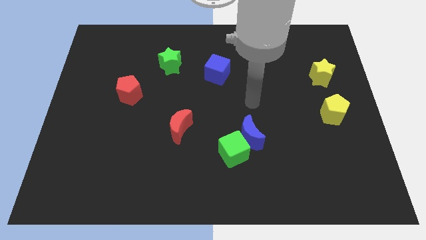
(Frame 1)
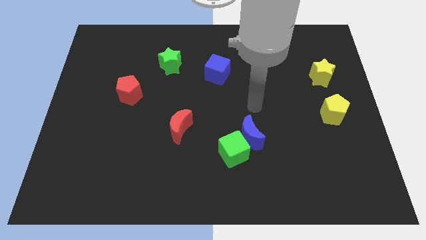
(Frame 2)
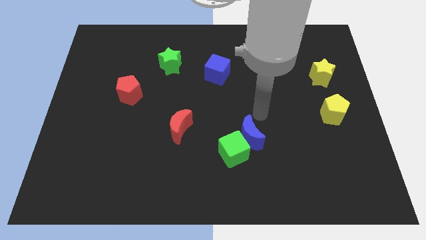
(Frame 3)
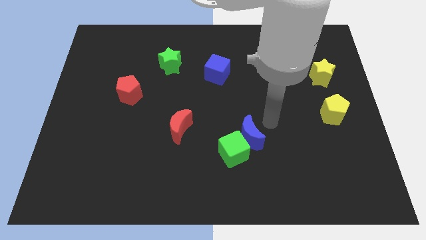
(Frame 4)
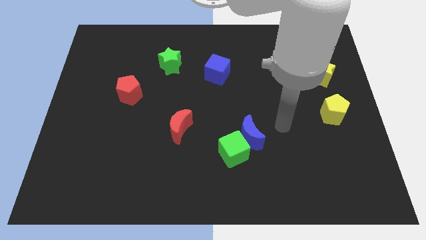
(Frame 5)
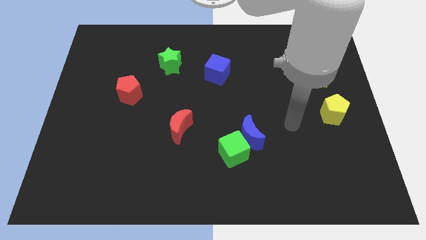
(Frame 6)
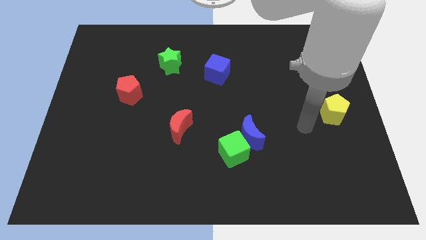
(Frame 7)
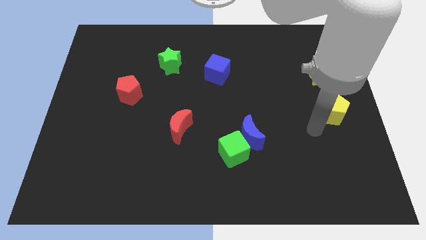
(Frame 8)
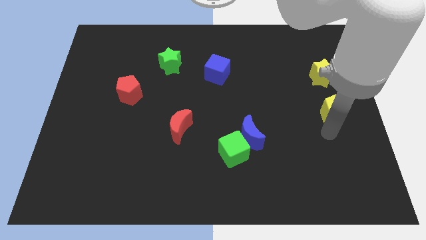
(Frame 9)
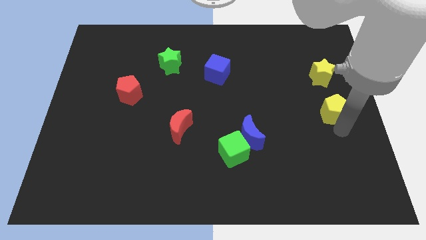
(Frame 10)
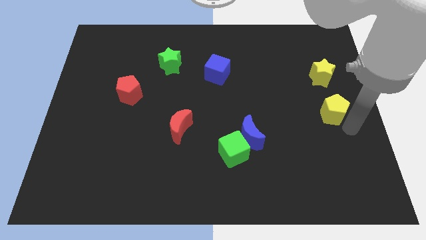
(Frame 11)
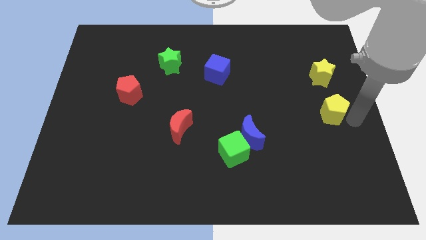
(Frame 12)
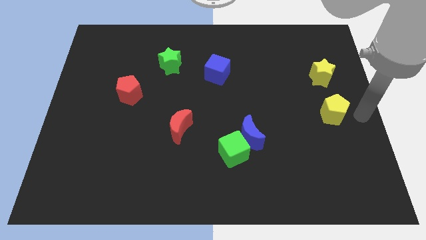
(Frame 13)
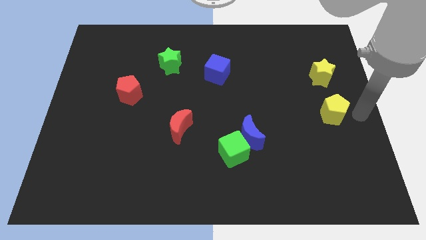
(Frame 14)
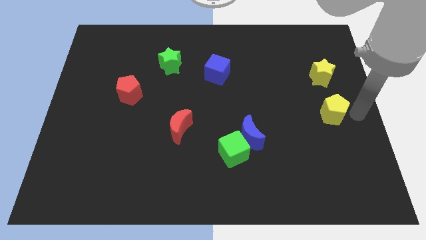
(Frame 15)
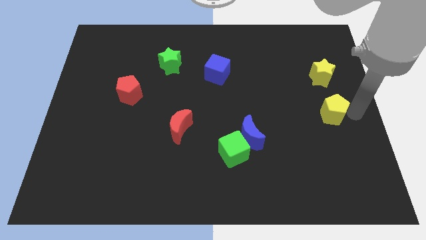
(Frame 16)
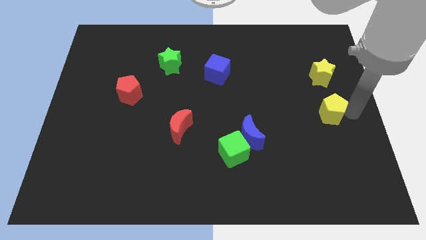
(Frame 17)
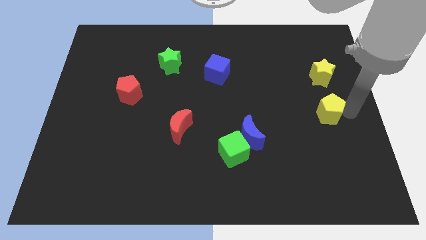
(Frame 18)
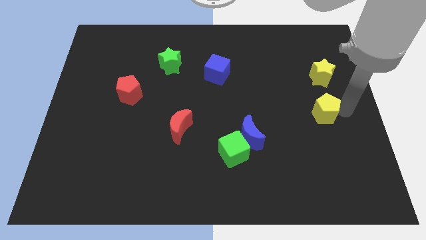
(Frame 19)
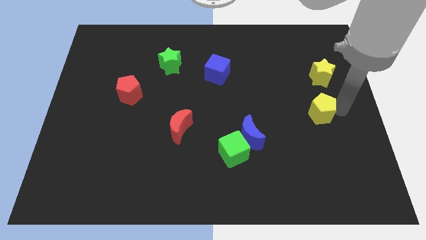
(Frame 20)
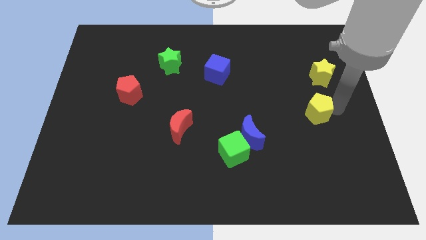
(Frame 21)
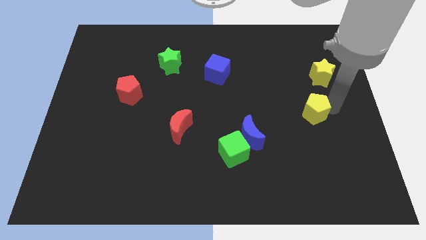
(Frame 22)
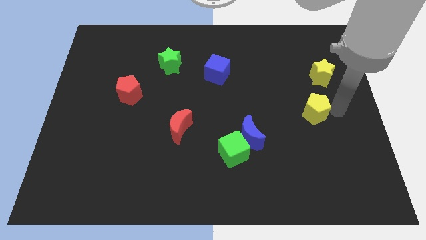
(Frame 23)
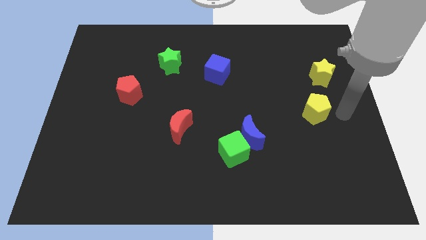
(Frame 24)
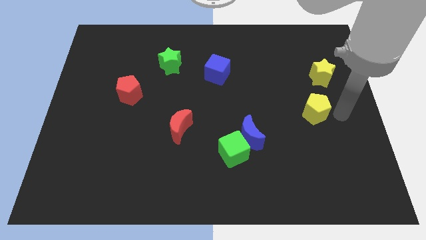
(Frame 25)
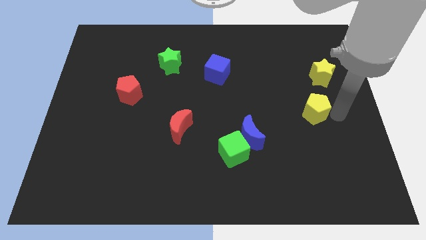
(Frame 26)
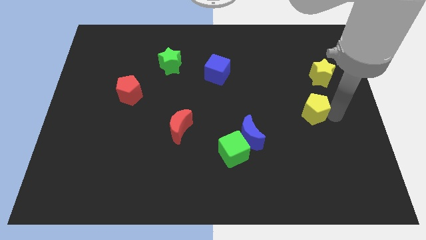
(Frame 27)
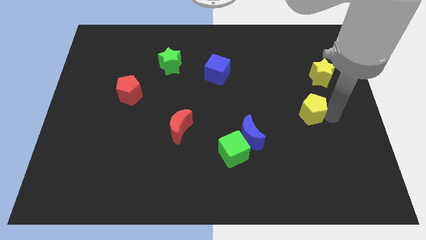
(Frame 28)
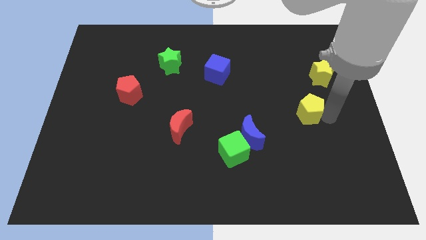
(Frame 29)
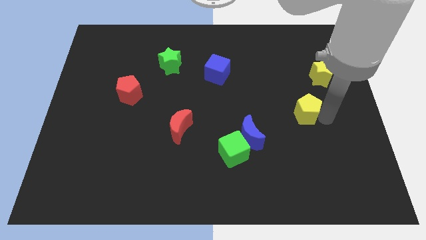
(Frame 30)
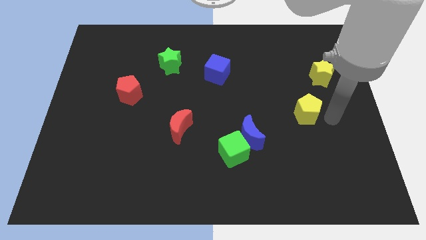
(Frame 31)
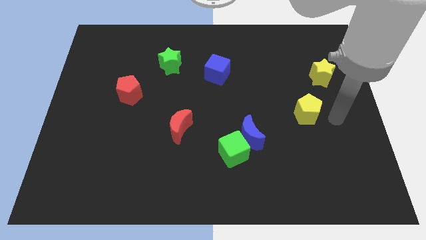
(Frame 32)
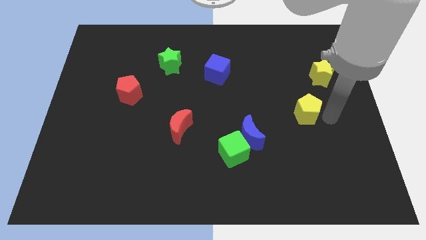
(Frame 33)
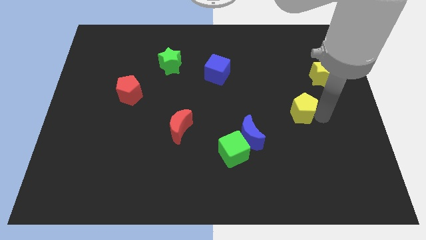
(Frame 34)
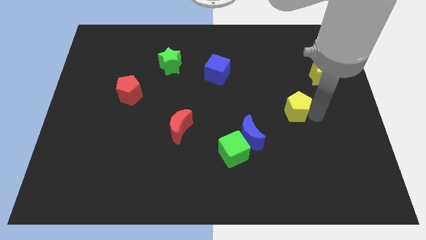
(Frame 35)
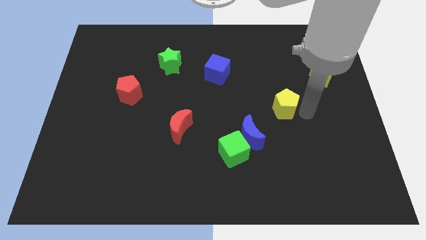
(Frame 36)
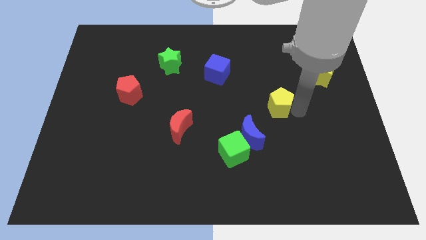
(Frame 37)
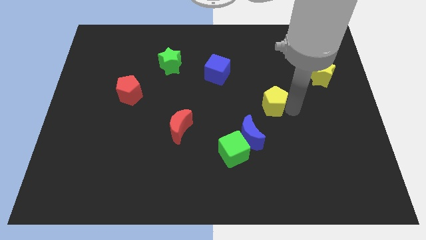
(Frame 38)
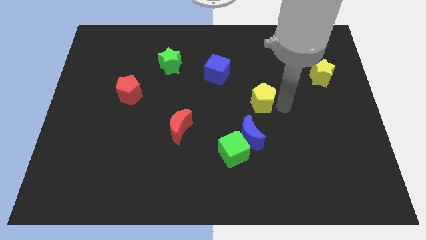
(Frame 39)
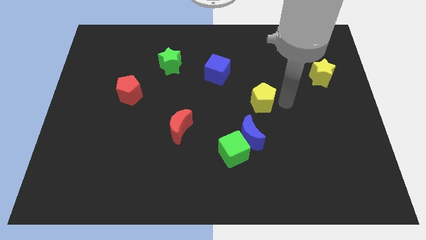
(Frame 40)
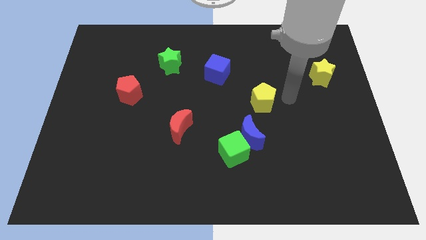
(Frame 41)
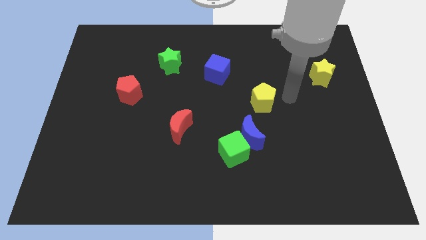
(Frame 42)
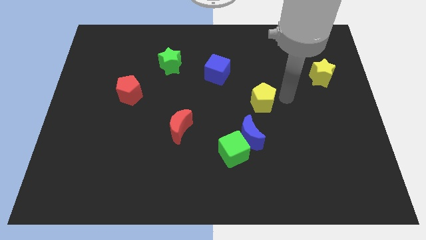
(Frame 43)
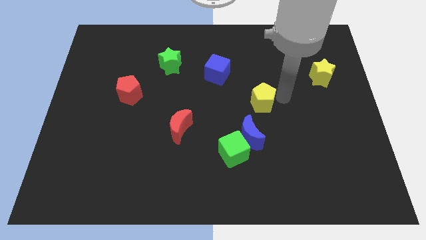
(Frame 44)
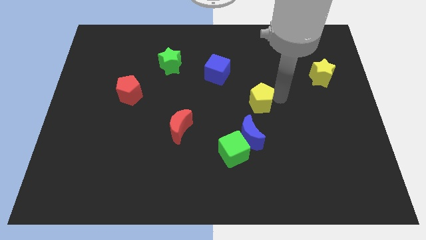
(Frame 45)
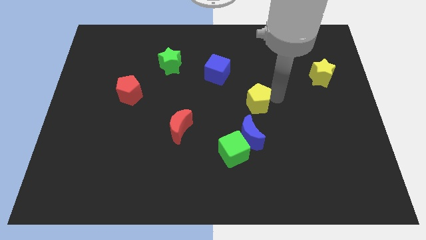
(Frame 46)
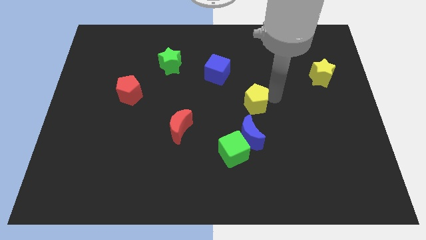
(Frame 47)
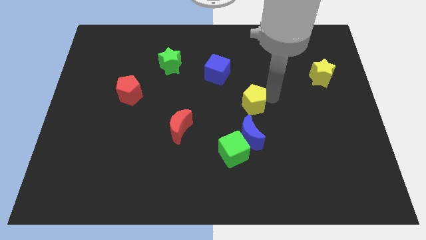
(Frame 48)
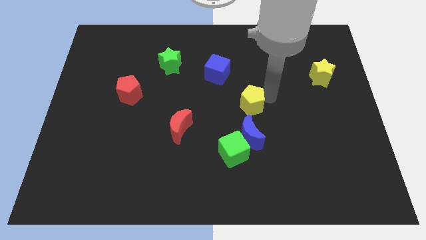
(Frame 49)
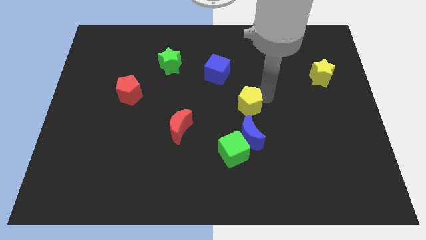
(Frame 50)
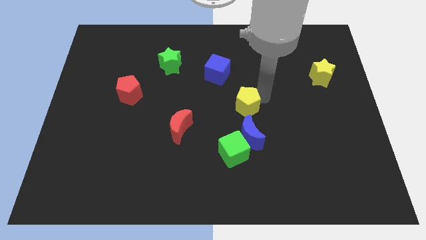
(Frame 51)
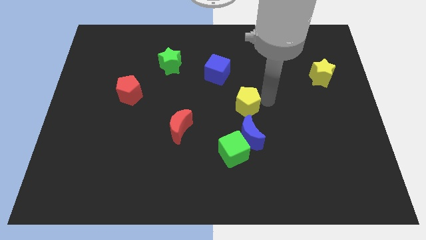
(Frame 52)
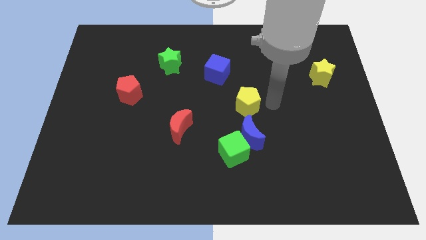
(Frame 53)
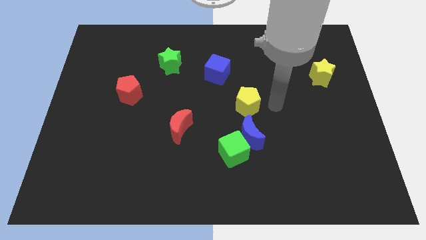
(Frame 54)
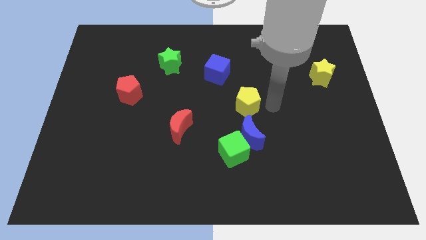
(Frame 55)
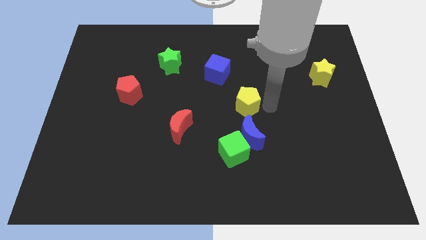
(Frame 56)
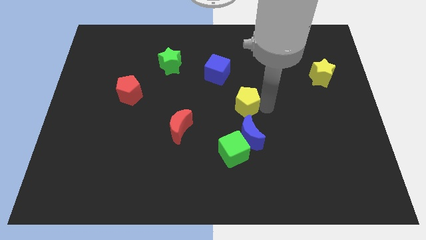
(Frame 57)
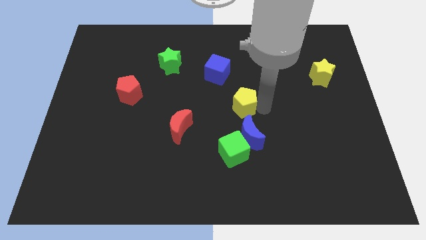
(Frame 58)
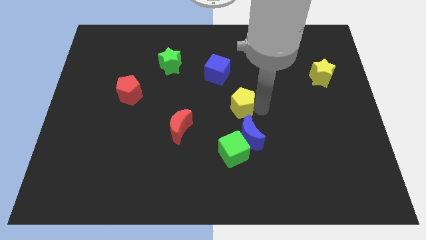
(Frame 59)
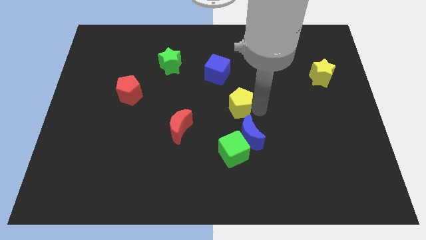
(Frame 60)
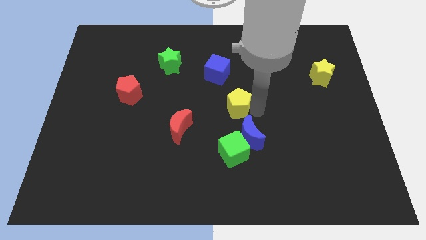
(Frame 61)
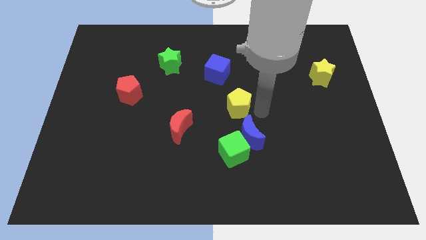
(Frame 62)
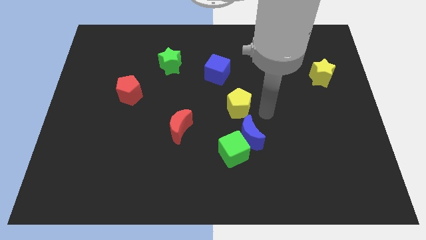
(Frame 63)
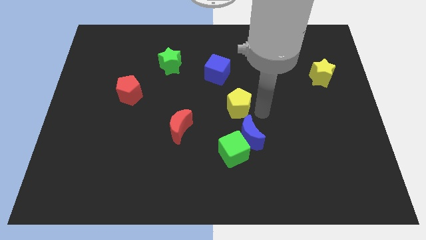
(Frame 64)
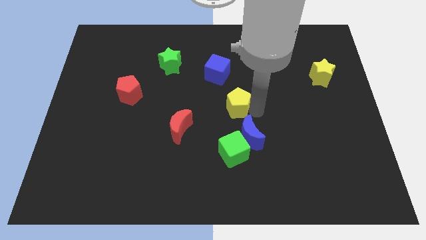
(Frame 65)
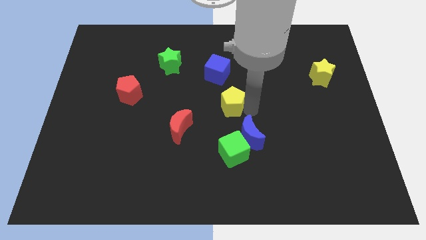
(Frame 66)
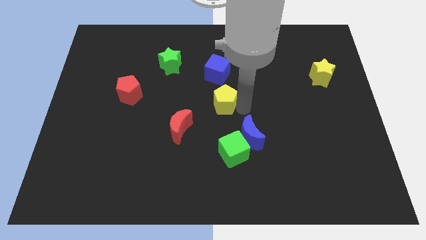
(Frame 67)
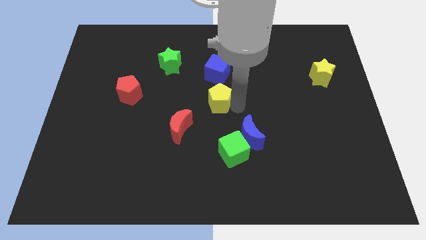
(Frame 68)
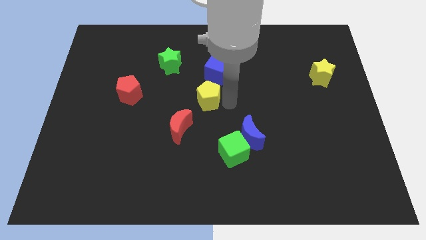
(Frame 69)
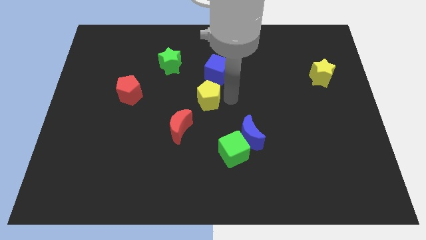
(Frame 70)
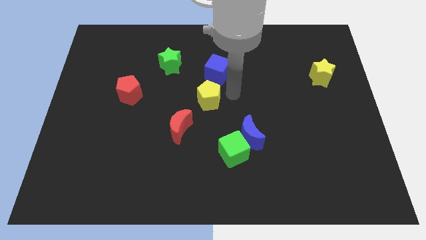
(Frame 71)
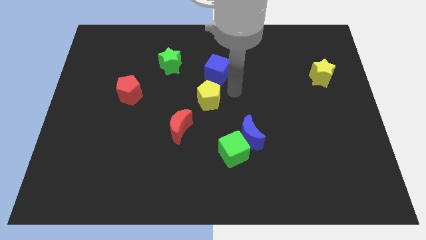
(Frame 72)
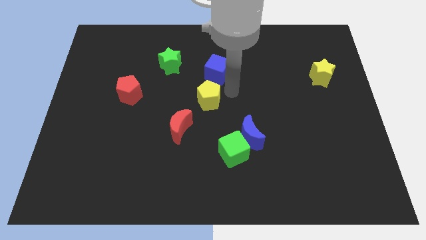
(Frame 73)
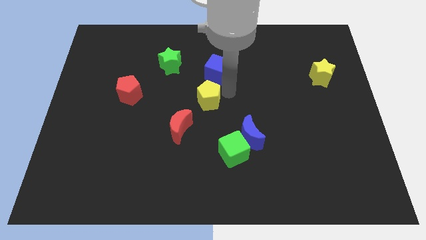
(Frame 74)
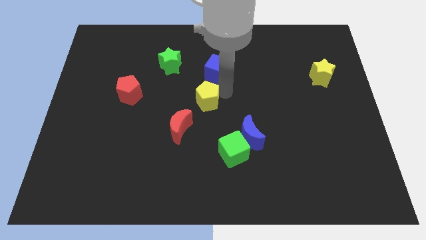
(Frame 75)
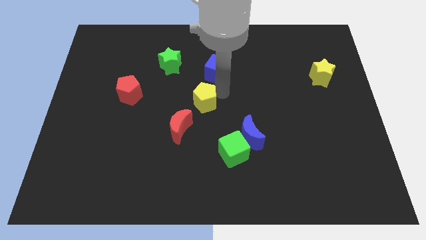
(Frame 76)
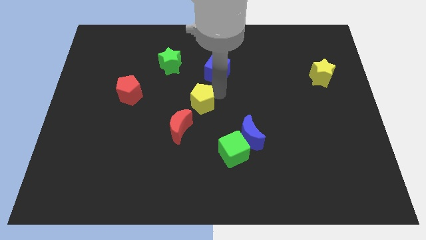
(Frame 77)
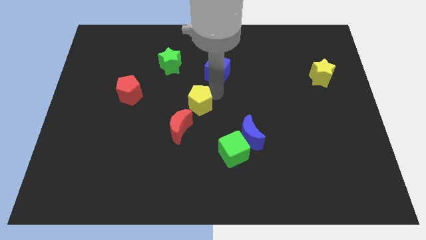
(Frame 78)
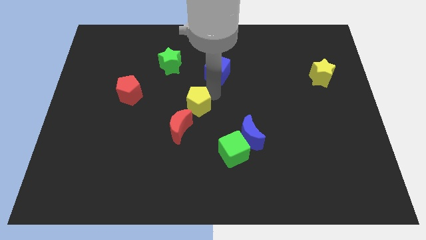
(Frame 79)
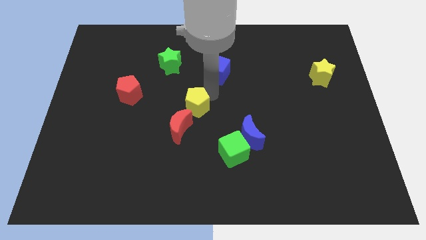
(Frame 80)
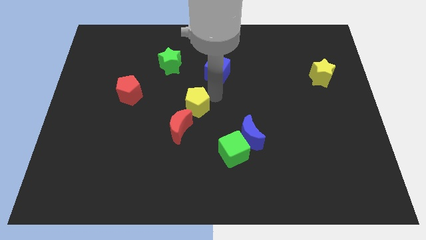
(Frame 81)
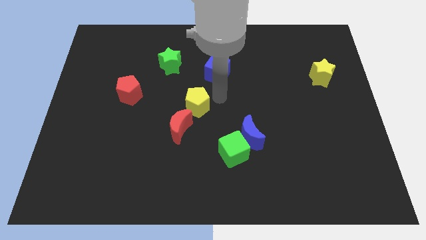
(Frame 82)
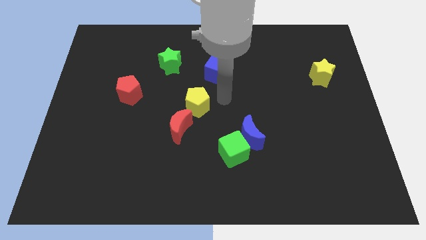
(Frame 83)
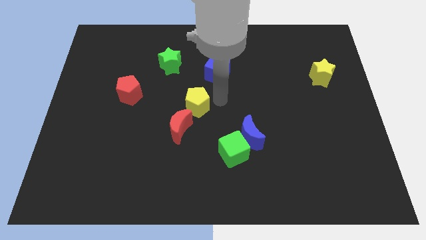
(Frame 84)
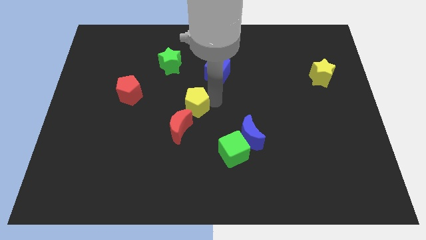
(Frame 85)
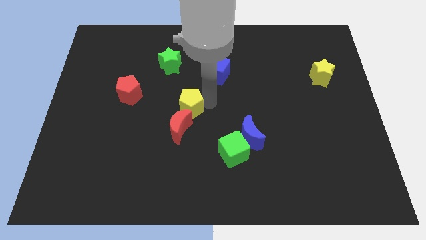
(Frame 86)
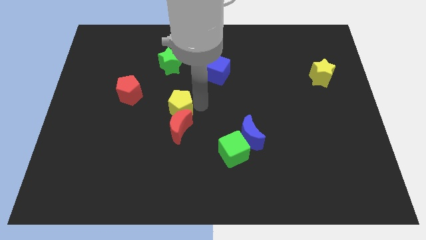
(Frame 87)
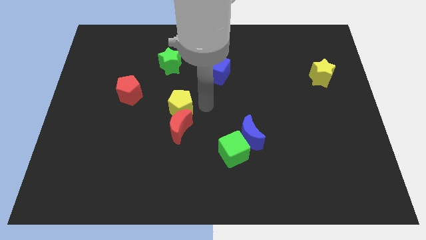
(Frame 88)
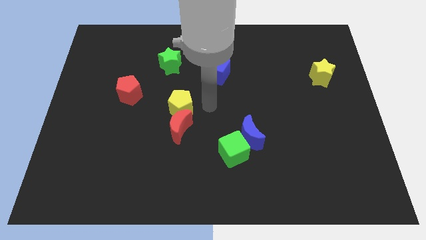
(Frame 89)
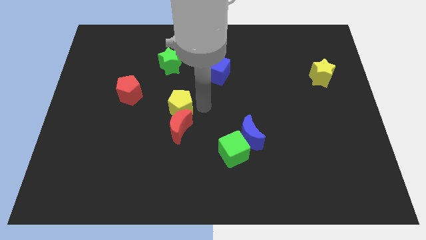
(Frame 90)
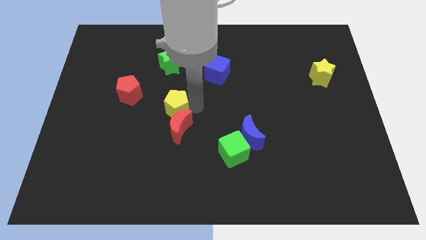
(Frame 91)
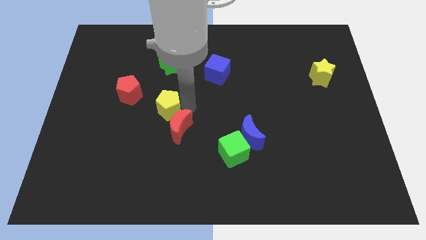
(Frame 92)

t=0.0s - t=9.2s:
slide the yellow pentagon diagonally down and to the right of the red pentagon
